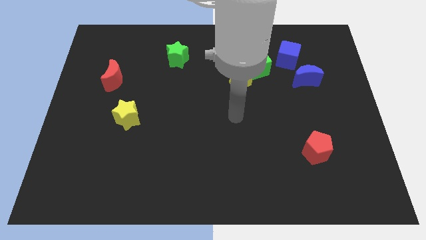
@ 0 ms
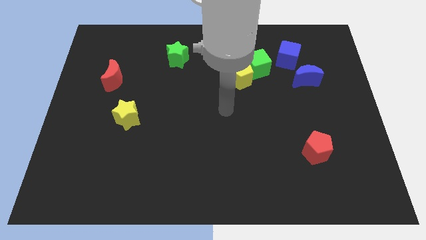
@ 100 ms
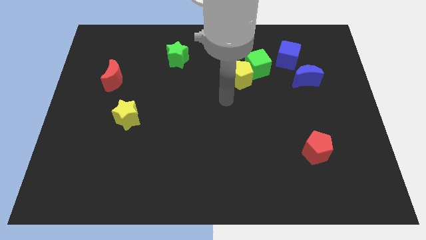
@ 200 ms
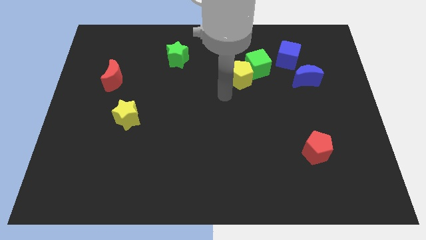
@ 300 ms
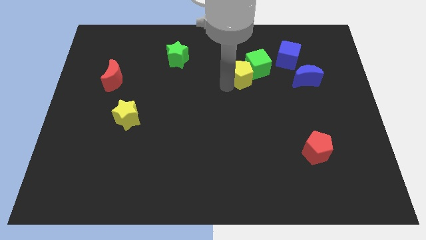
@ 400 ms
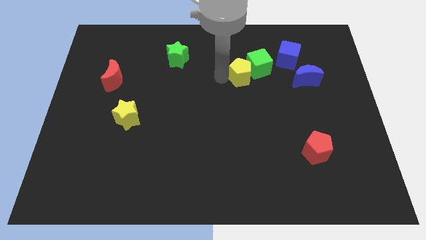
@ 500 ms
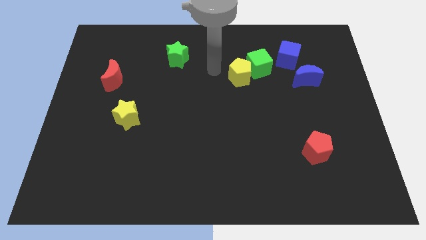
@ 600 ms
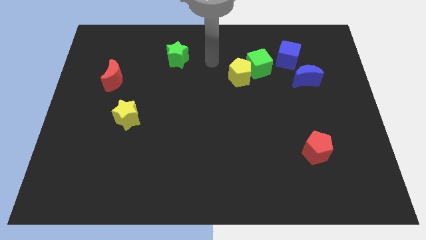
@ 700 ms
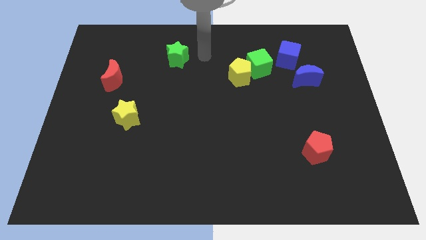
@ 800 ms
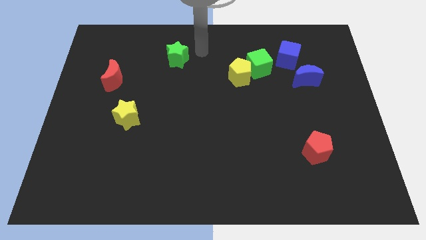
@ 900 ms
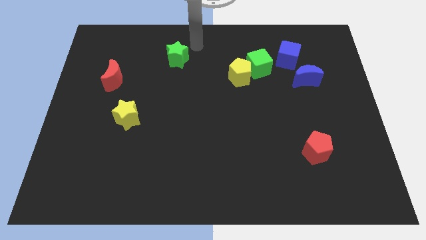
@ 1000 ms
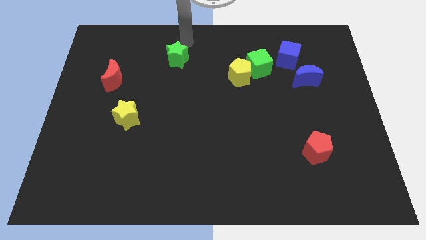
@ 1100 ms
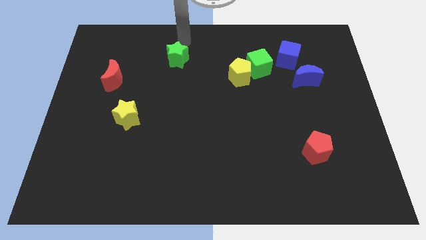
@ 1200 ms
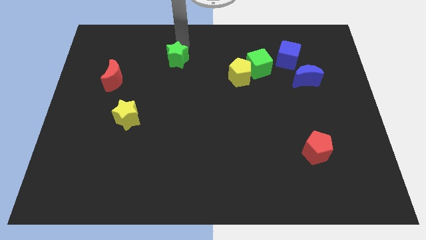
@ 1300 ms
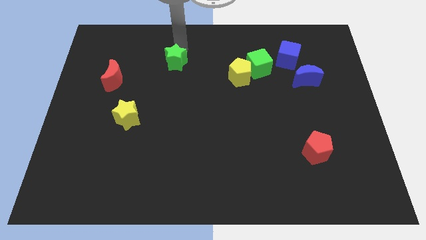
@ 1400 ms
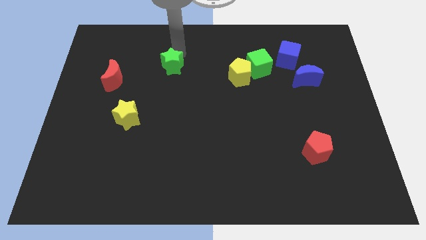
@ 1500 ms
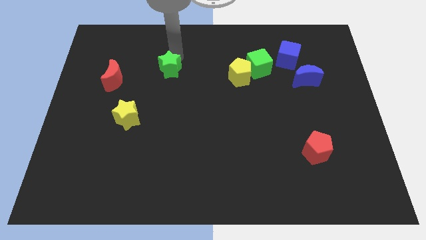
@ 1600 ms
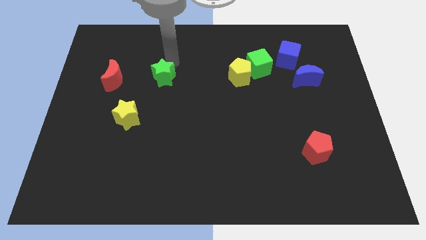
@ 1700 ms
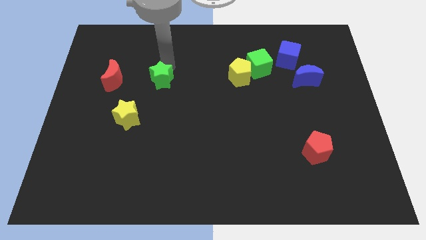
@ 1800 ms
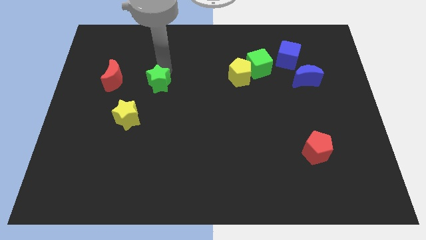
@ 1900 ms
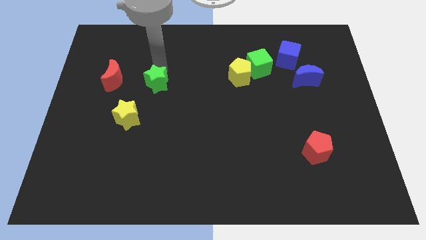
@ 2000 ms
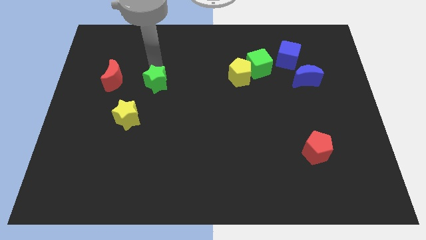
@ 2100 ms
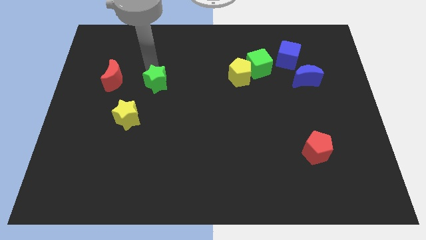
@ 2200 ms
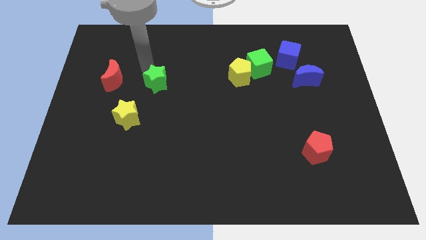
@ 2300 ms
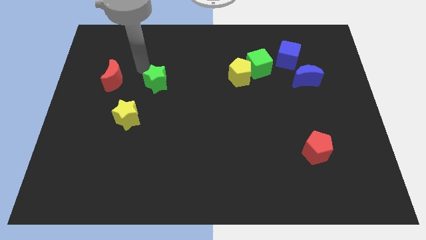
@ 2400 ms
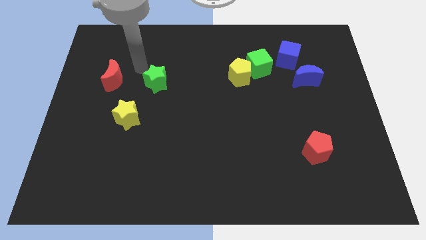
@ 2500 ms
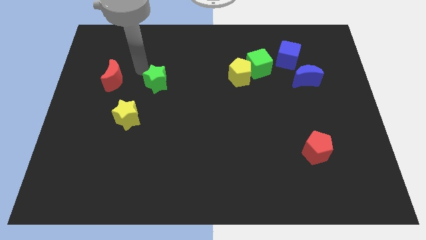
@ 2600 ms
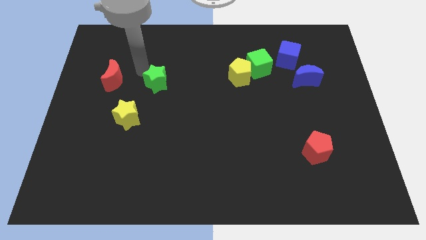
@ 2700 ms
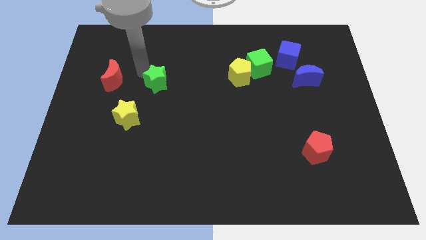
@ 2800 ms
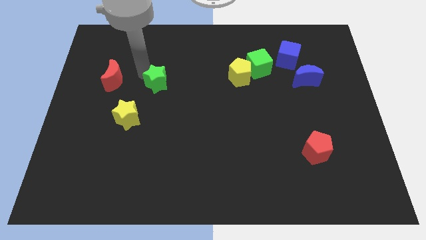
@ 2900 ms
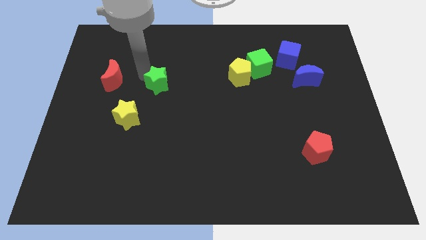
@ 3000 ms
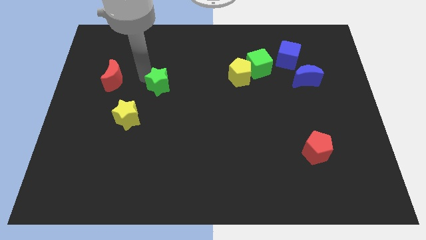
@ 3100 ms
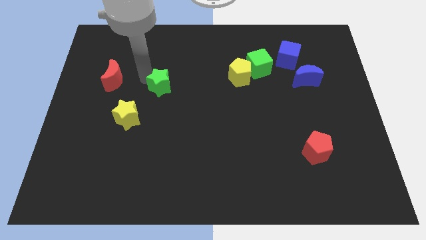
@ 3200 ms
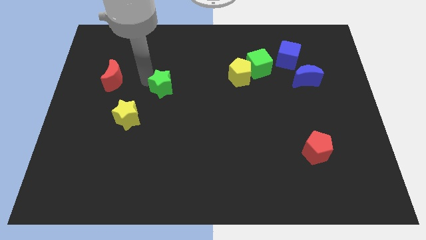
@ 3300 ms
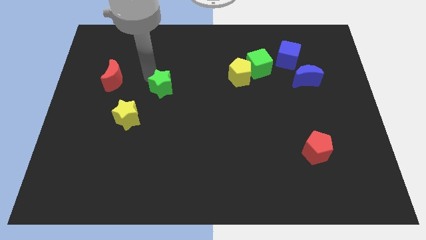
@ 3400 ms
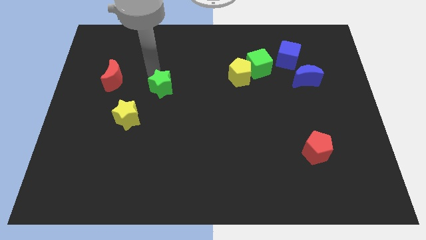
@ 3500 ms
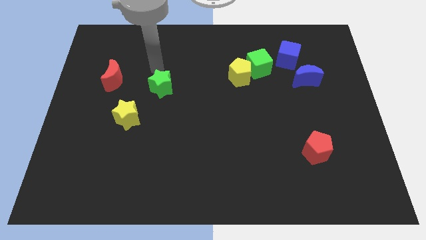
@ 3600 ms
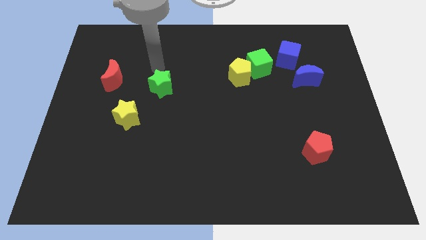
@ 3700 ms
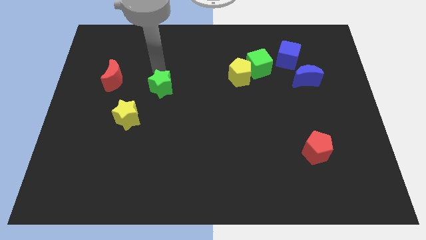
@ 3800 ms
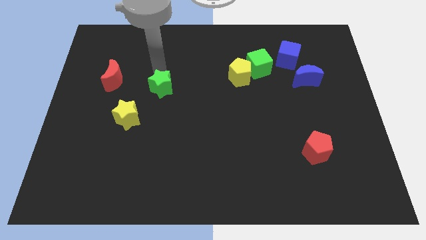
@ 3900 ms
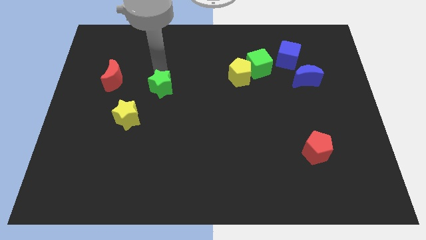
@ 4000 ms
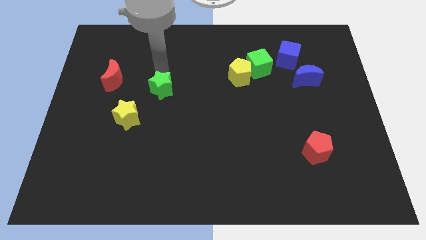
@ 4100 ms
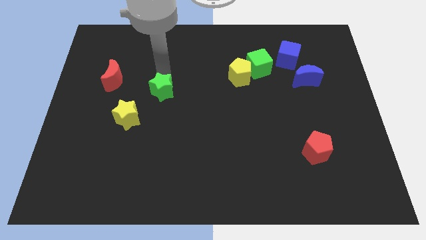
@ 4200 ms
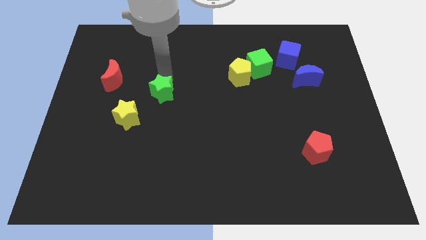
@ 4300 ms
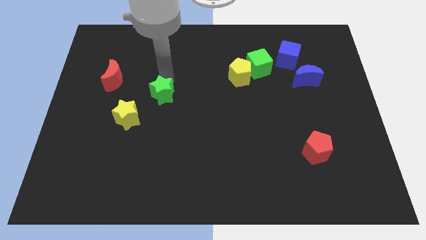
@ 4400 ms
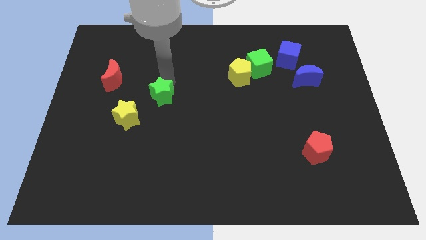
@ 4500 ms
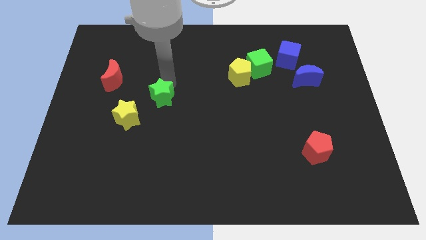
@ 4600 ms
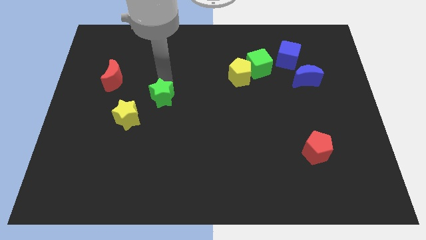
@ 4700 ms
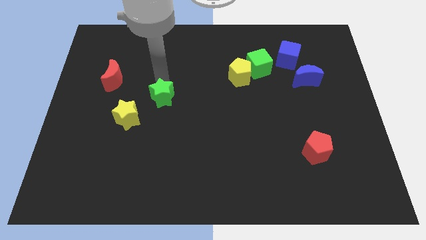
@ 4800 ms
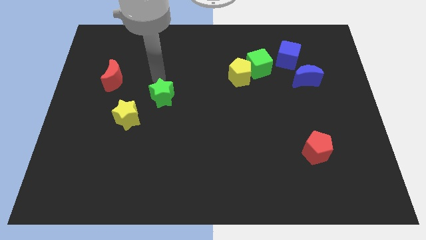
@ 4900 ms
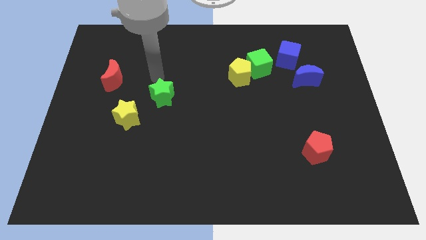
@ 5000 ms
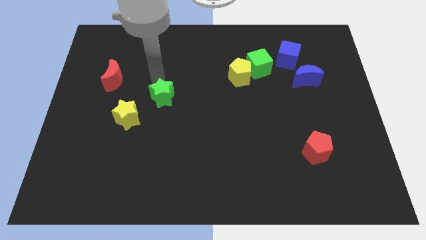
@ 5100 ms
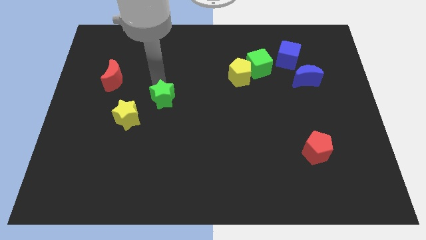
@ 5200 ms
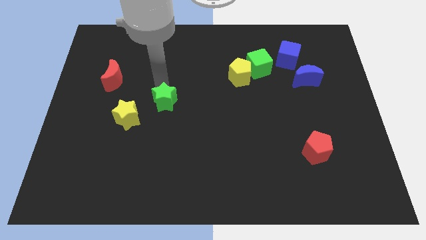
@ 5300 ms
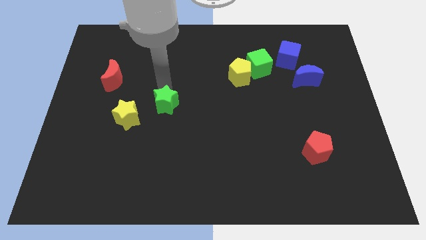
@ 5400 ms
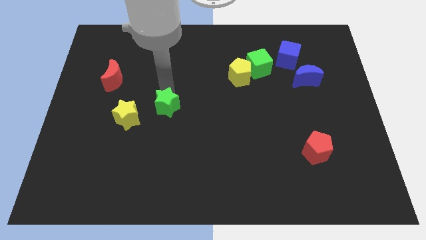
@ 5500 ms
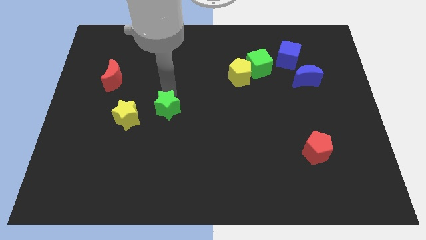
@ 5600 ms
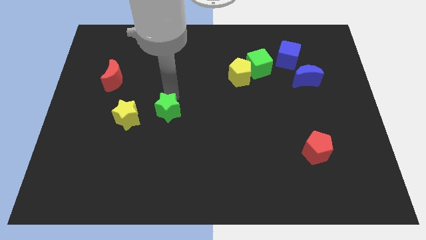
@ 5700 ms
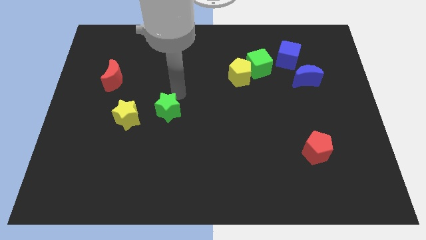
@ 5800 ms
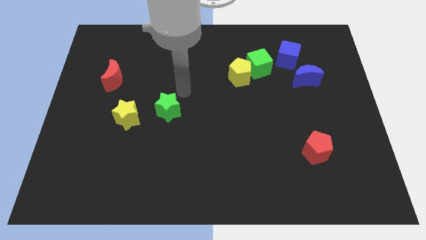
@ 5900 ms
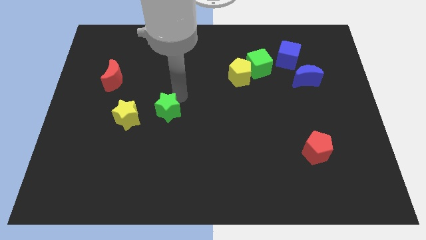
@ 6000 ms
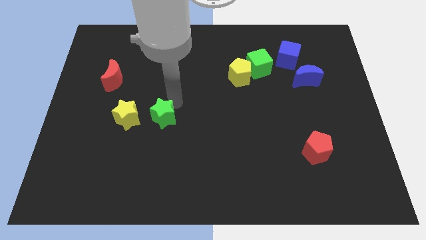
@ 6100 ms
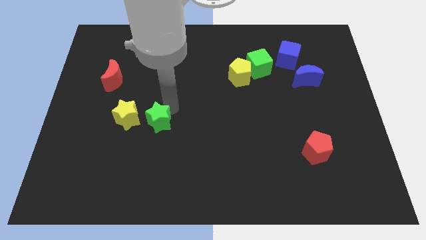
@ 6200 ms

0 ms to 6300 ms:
put the green star to the bottom right side of the yellow star

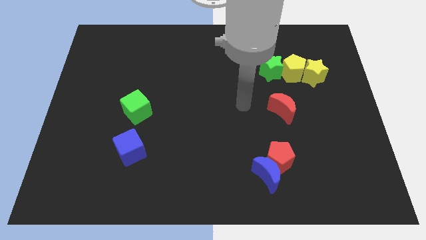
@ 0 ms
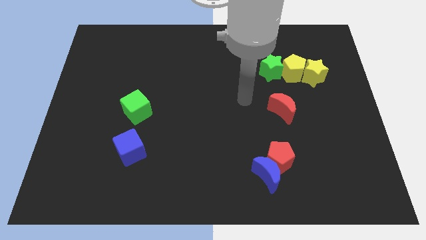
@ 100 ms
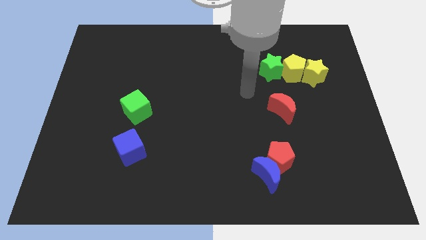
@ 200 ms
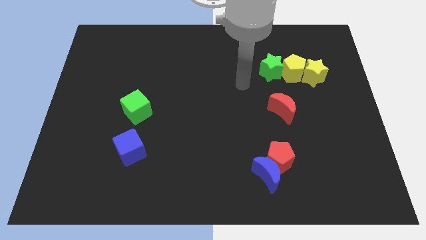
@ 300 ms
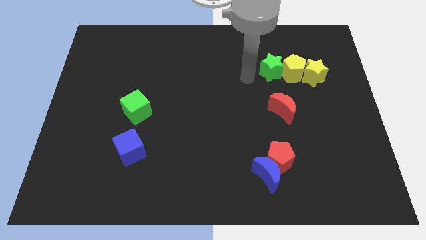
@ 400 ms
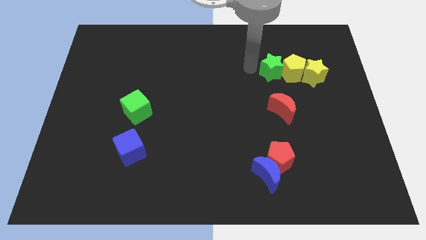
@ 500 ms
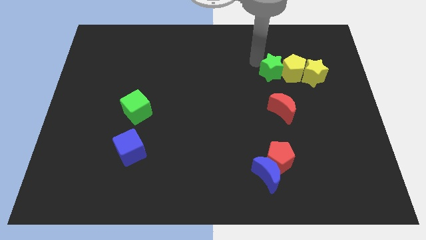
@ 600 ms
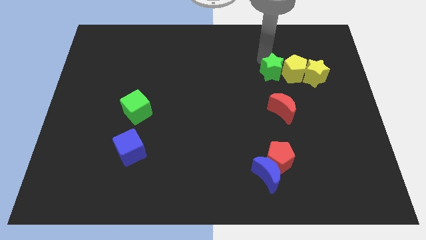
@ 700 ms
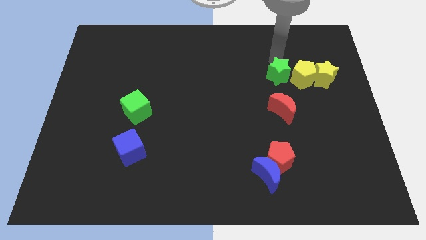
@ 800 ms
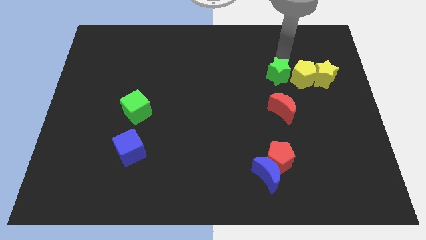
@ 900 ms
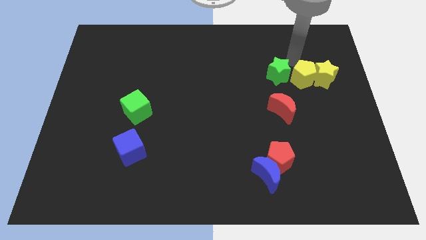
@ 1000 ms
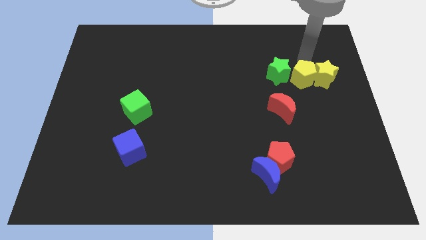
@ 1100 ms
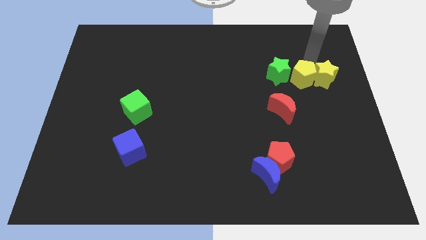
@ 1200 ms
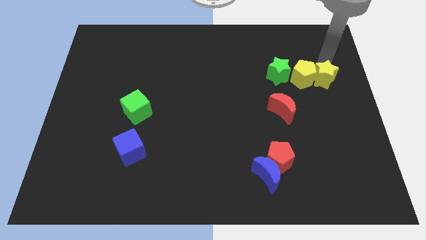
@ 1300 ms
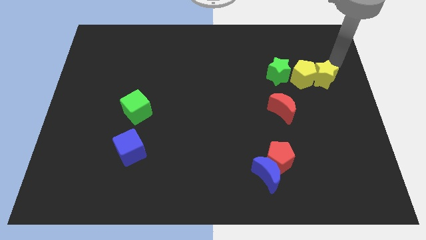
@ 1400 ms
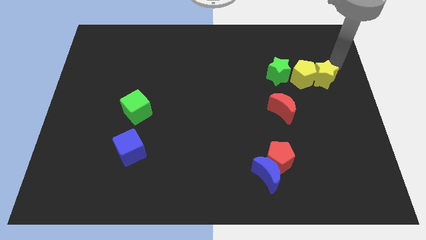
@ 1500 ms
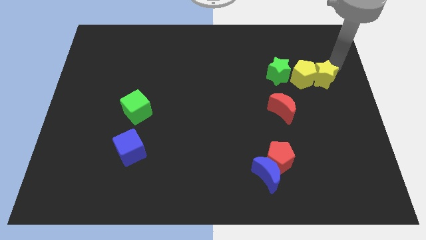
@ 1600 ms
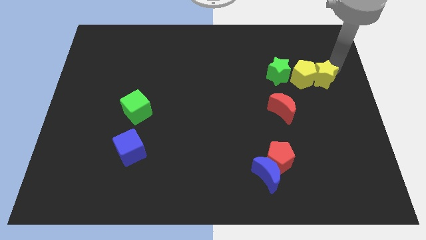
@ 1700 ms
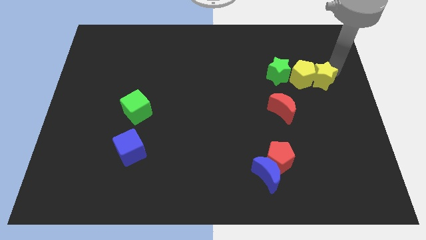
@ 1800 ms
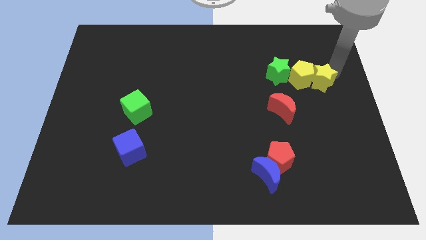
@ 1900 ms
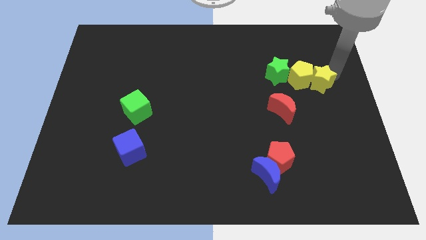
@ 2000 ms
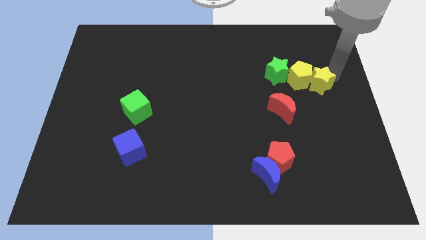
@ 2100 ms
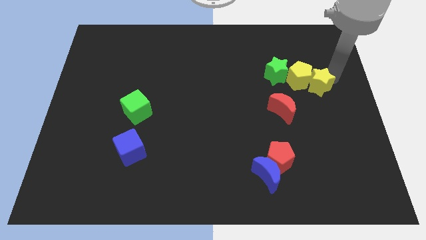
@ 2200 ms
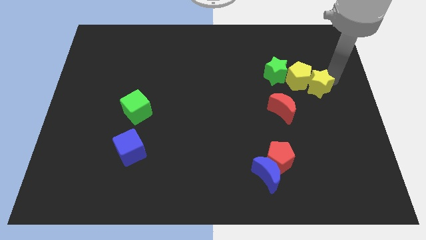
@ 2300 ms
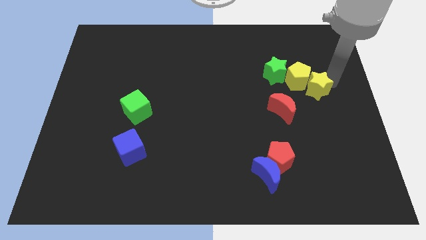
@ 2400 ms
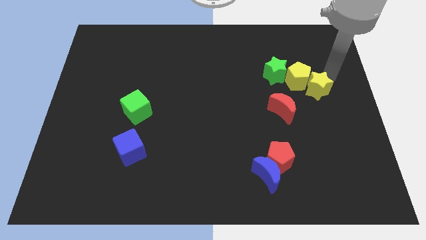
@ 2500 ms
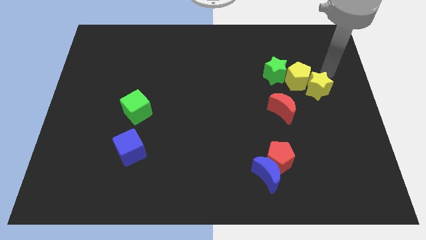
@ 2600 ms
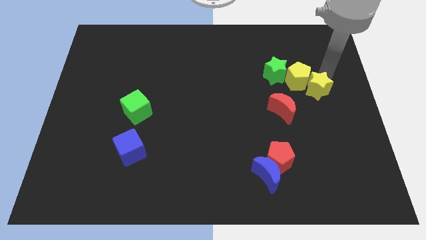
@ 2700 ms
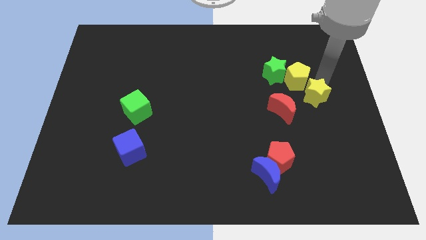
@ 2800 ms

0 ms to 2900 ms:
slide the yellow star to the bottom side of the yellow pentagon
